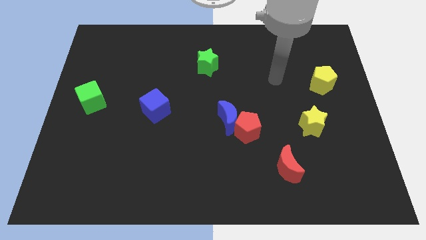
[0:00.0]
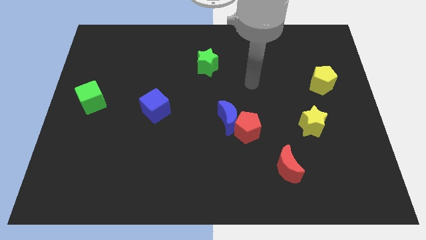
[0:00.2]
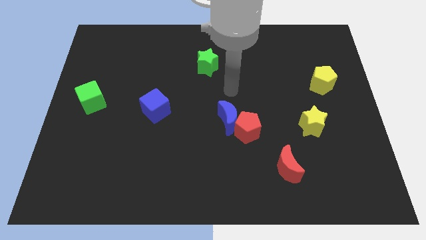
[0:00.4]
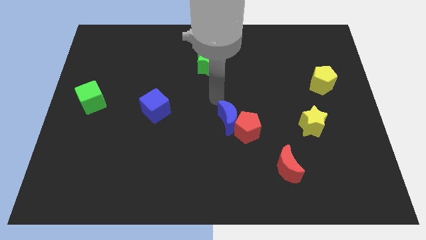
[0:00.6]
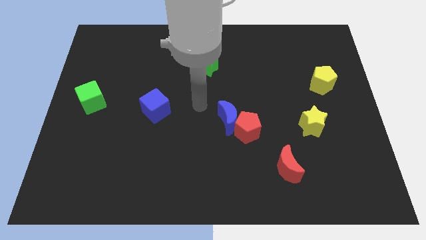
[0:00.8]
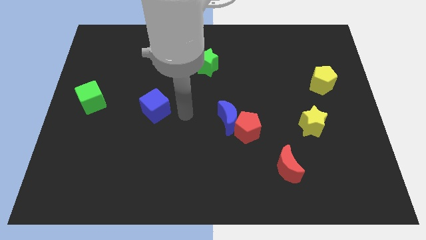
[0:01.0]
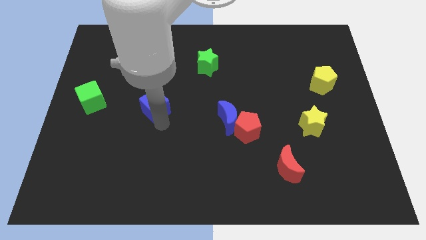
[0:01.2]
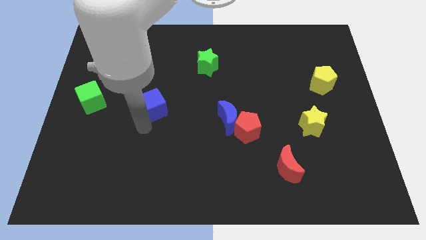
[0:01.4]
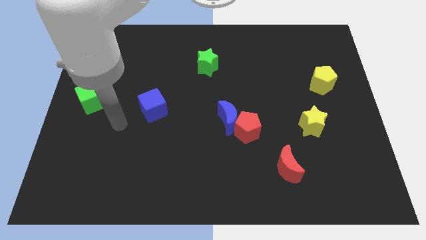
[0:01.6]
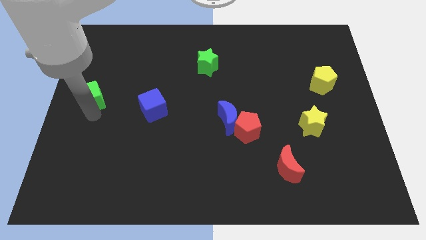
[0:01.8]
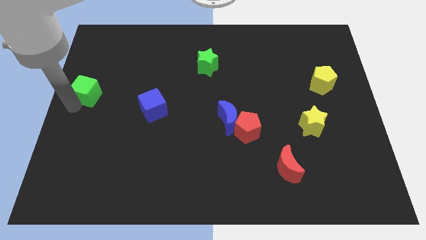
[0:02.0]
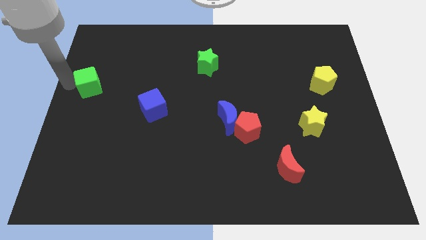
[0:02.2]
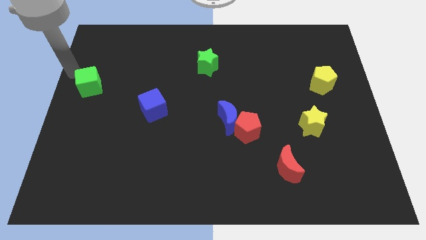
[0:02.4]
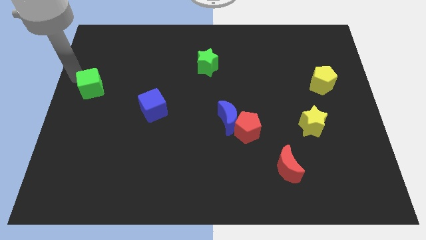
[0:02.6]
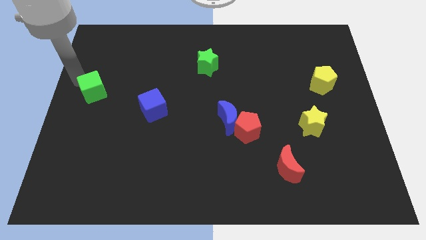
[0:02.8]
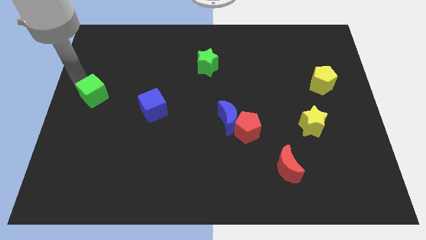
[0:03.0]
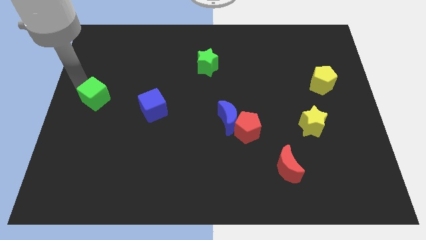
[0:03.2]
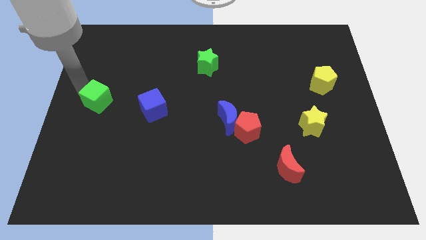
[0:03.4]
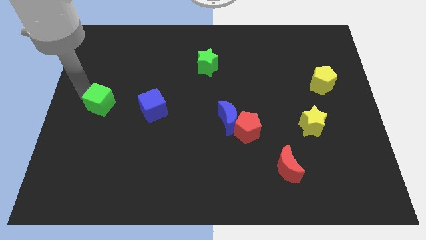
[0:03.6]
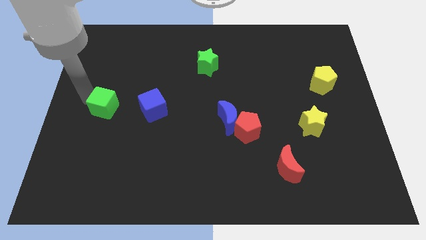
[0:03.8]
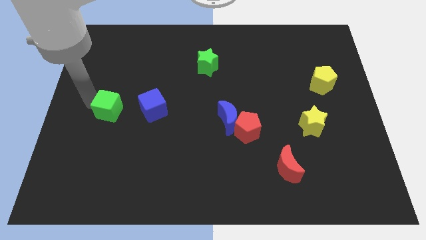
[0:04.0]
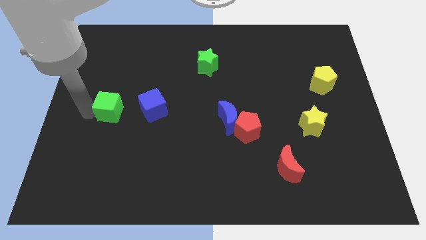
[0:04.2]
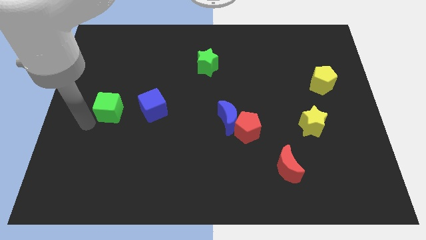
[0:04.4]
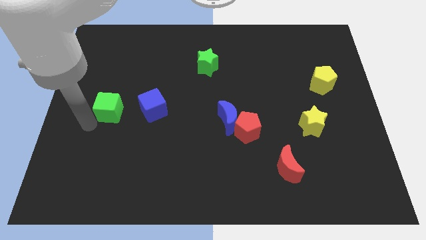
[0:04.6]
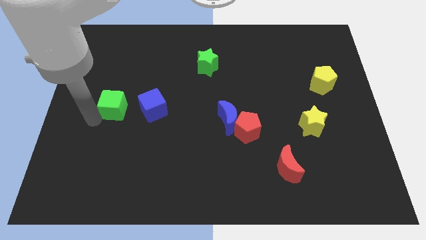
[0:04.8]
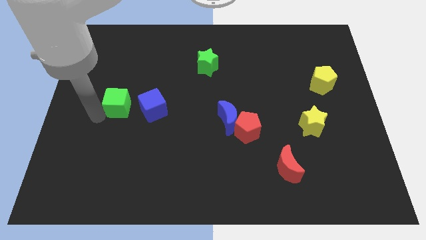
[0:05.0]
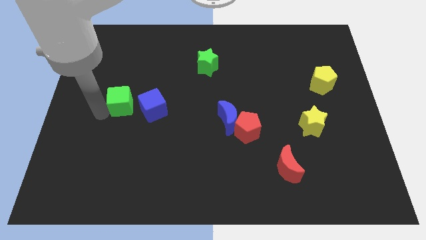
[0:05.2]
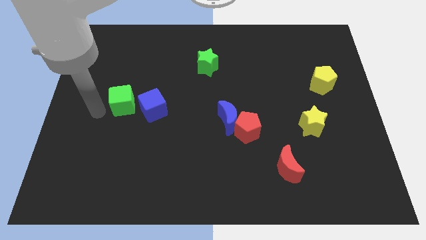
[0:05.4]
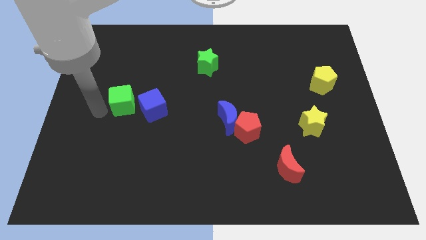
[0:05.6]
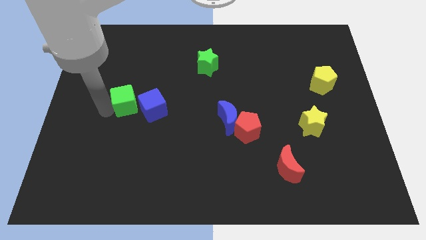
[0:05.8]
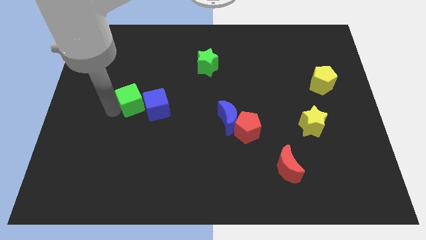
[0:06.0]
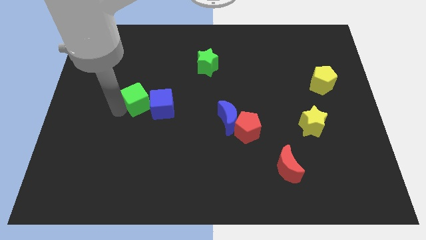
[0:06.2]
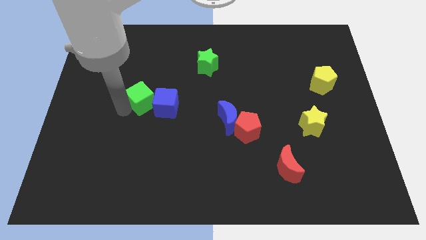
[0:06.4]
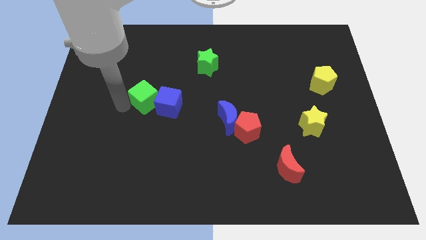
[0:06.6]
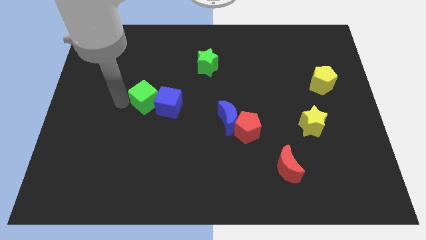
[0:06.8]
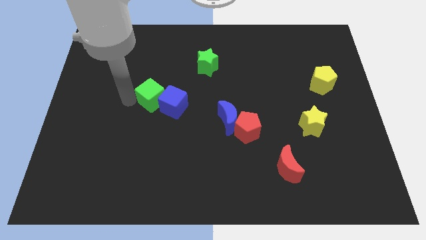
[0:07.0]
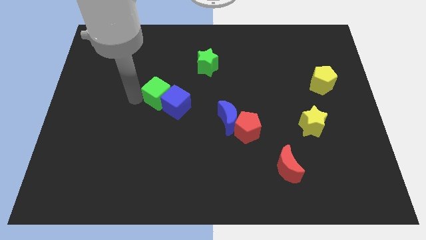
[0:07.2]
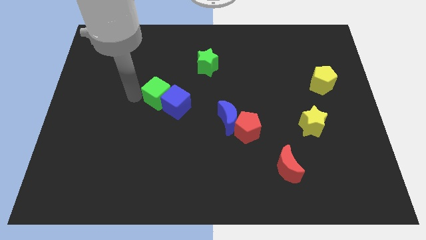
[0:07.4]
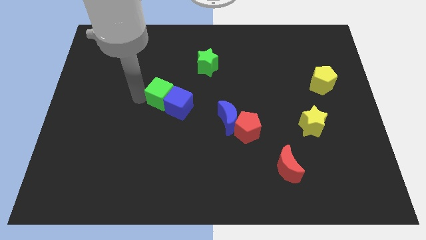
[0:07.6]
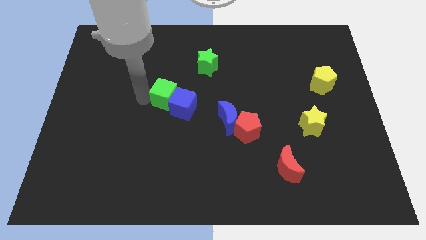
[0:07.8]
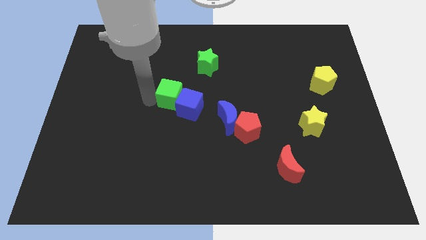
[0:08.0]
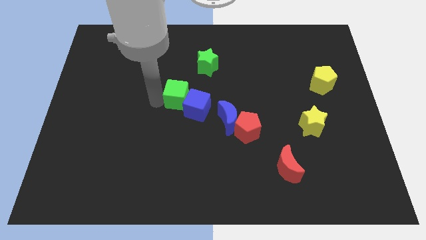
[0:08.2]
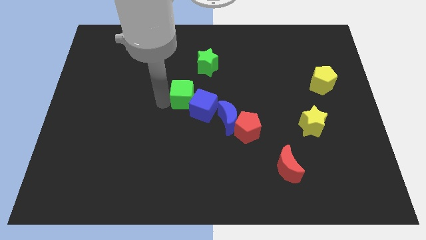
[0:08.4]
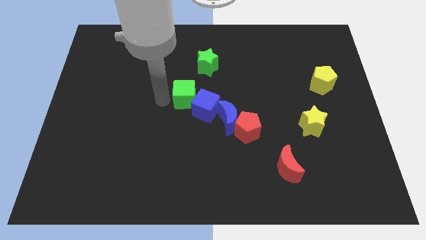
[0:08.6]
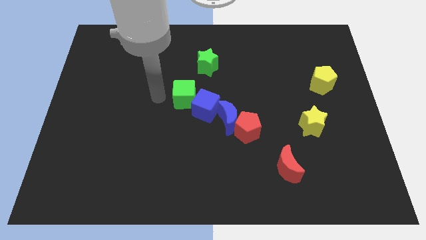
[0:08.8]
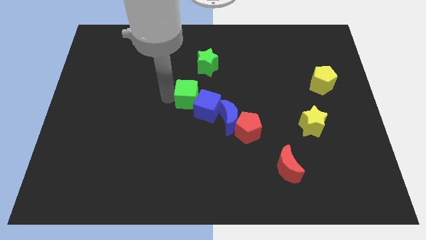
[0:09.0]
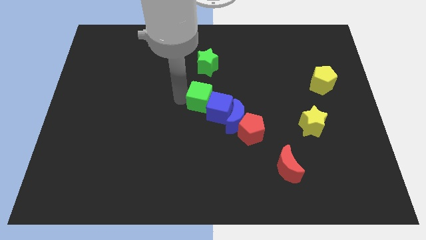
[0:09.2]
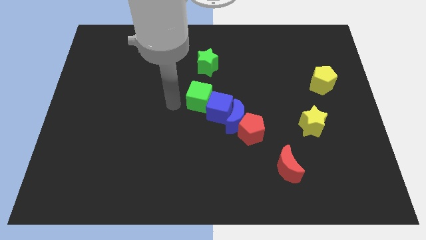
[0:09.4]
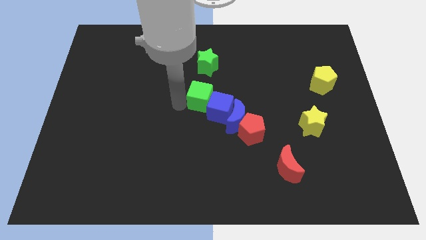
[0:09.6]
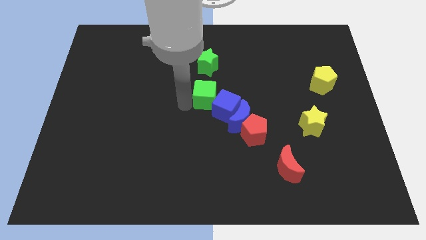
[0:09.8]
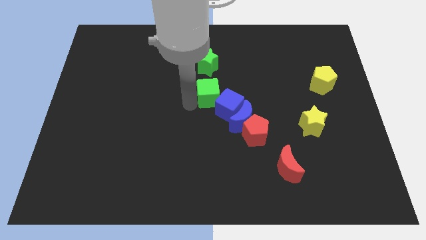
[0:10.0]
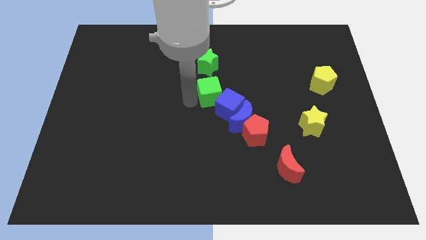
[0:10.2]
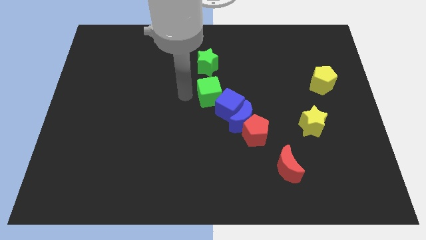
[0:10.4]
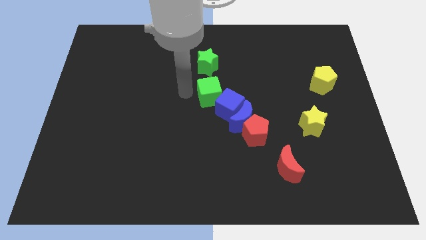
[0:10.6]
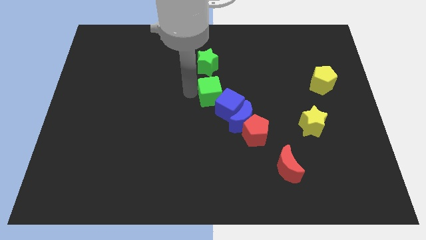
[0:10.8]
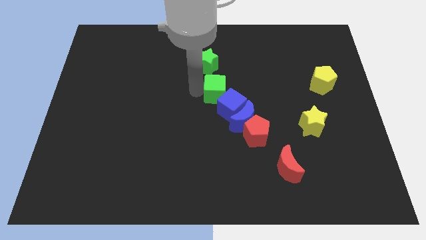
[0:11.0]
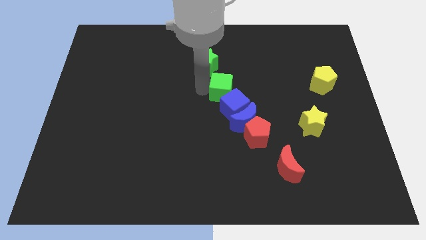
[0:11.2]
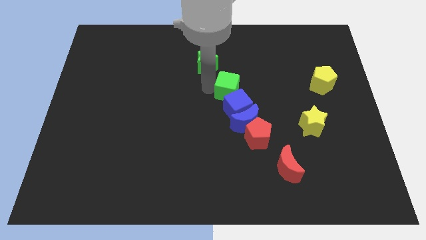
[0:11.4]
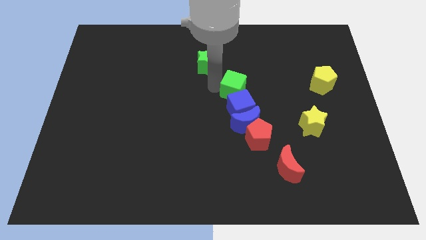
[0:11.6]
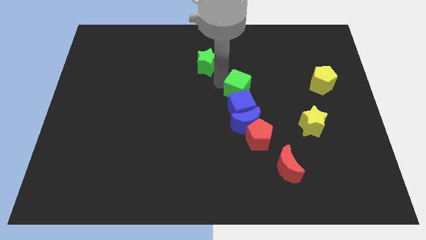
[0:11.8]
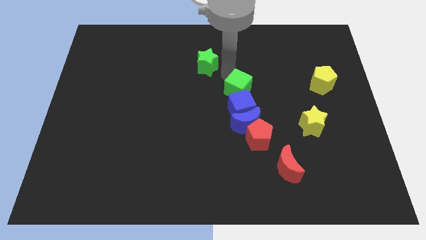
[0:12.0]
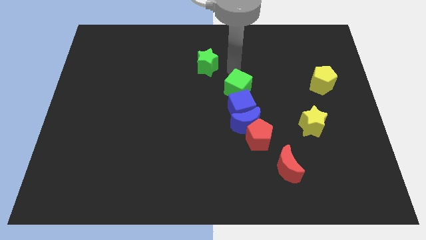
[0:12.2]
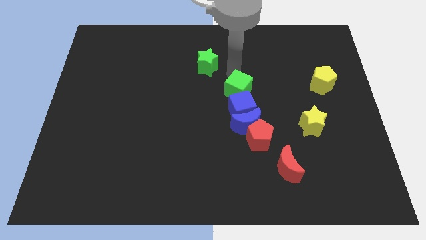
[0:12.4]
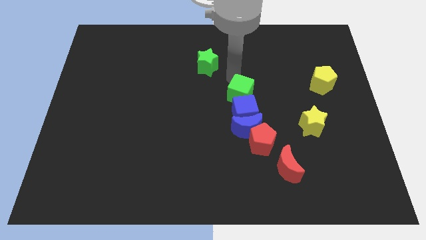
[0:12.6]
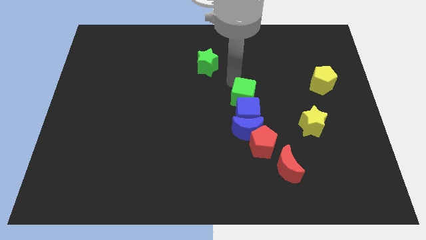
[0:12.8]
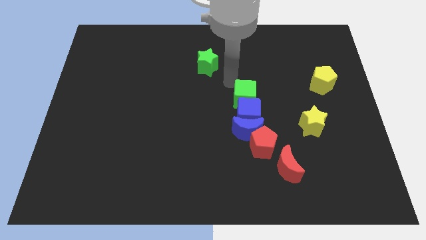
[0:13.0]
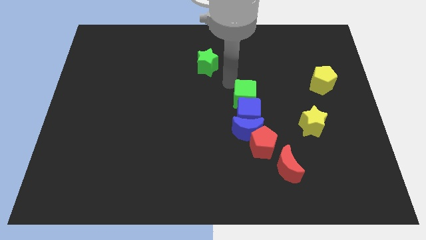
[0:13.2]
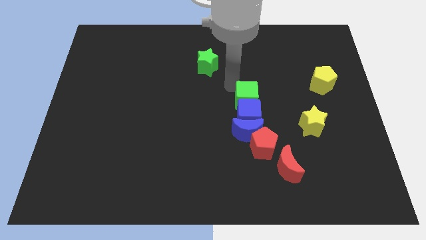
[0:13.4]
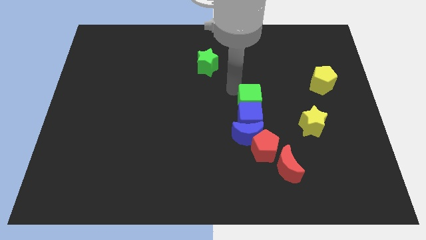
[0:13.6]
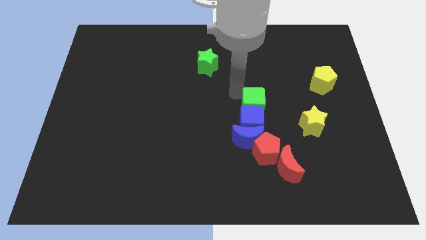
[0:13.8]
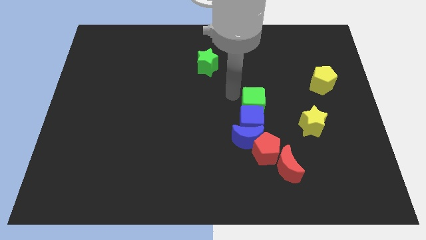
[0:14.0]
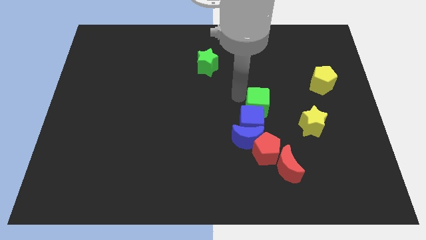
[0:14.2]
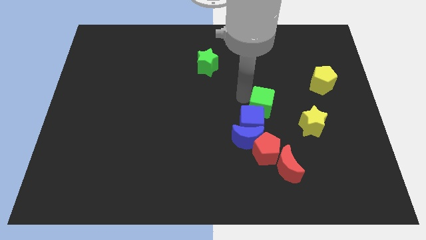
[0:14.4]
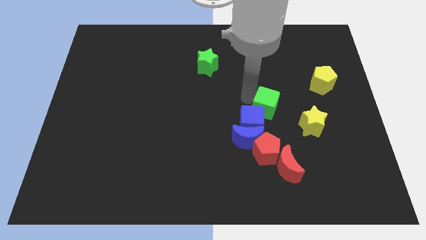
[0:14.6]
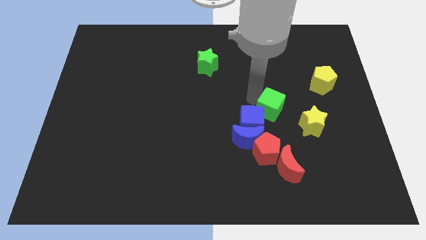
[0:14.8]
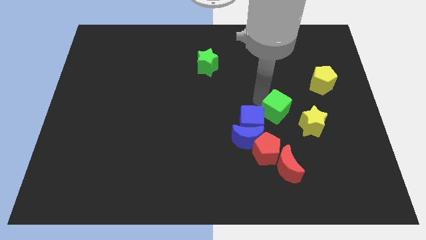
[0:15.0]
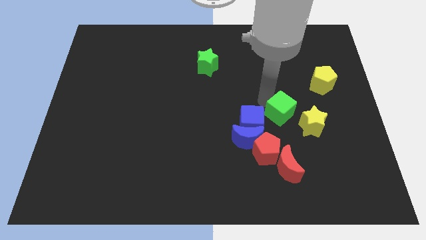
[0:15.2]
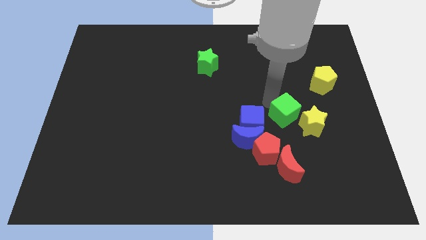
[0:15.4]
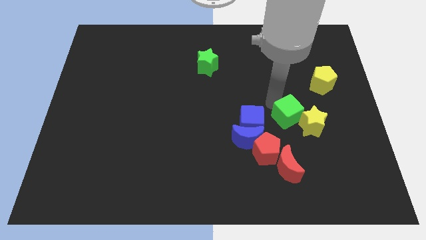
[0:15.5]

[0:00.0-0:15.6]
move the green cube next to the yellow star
